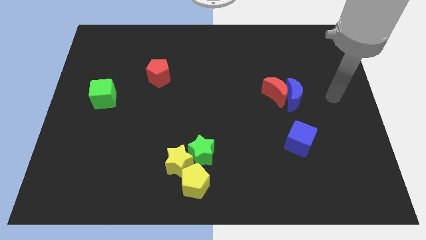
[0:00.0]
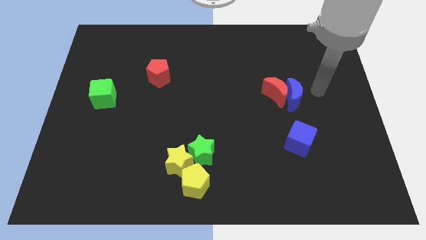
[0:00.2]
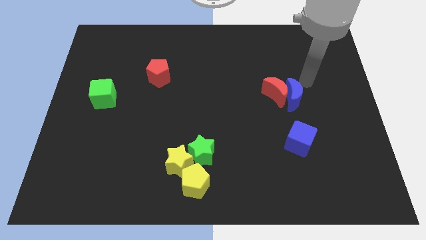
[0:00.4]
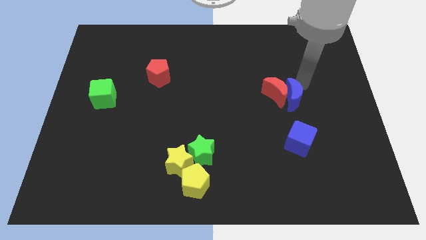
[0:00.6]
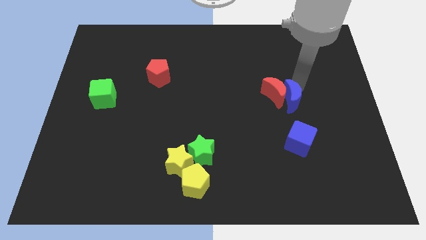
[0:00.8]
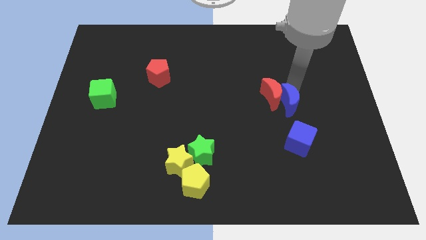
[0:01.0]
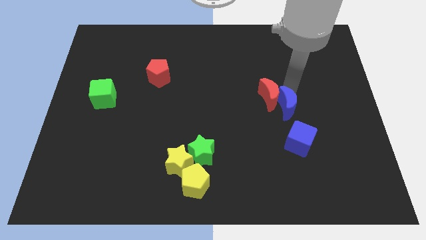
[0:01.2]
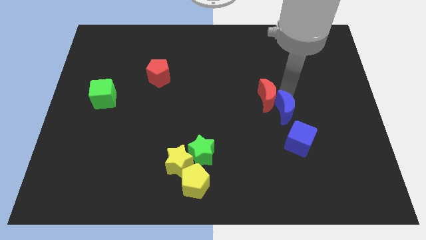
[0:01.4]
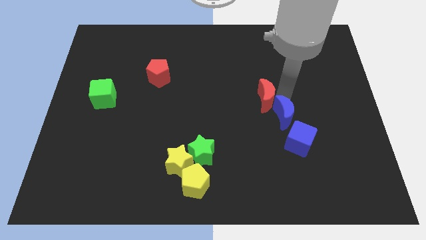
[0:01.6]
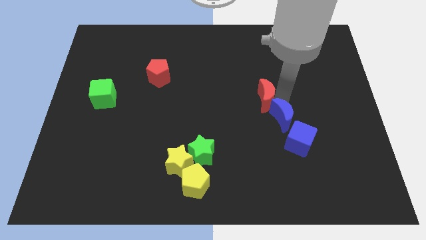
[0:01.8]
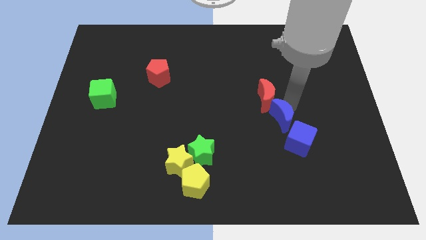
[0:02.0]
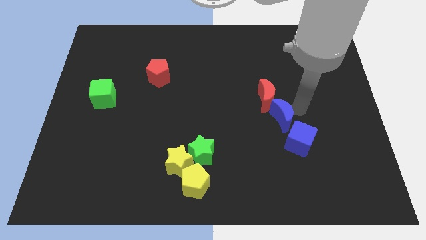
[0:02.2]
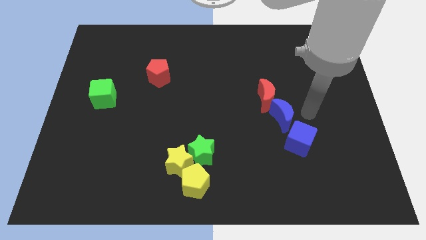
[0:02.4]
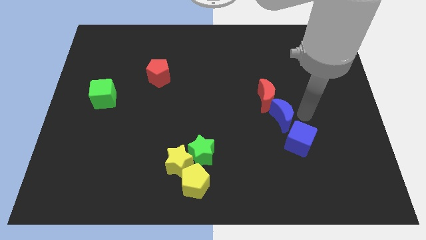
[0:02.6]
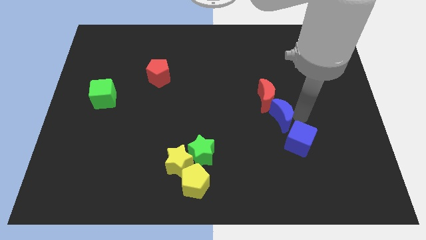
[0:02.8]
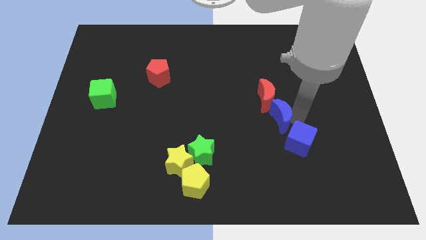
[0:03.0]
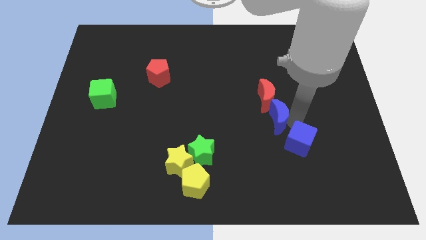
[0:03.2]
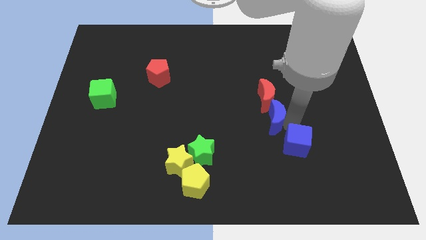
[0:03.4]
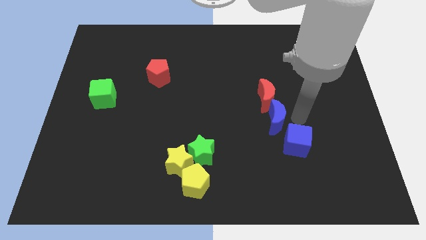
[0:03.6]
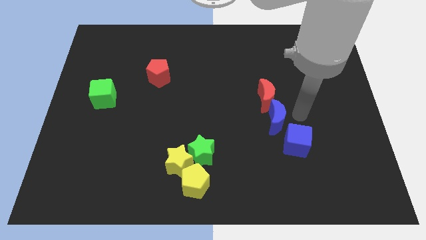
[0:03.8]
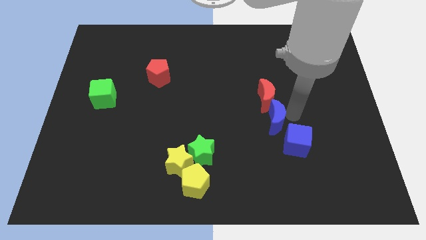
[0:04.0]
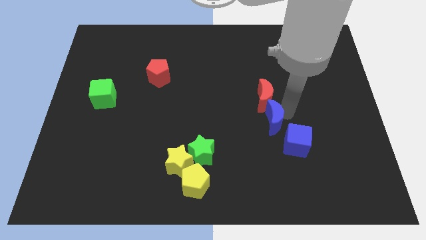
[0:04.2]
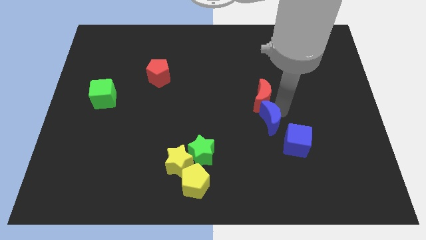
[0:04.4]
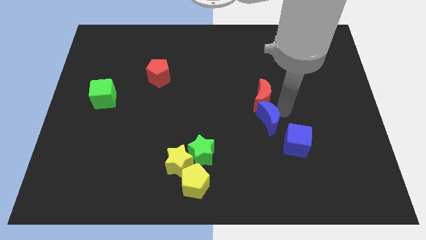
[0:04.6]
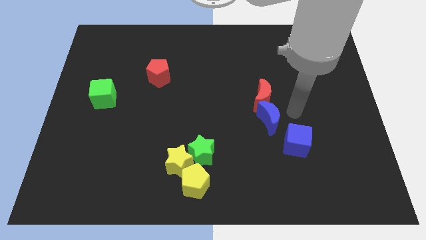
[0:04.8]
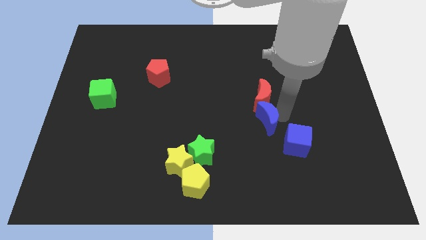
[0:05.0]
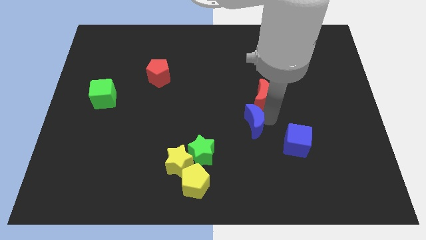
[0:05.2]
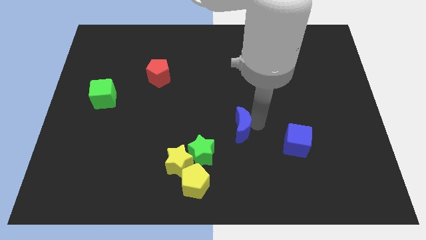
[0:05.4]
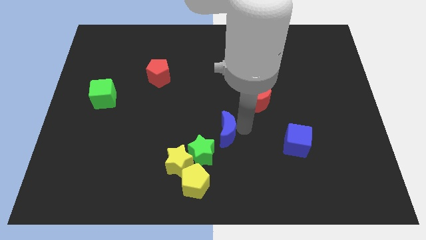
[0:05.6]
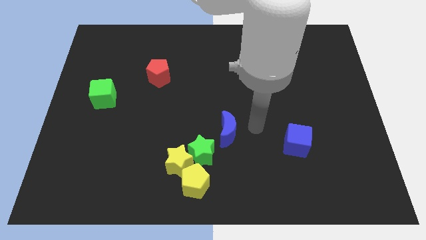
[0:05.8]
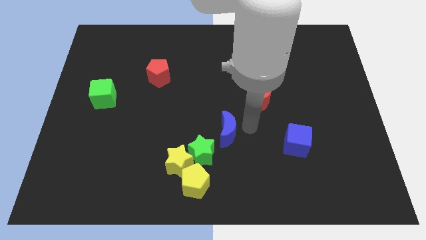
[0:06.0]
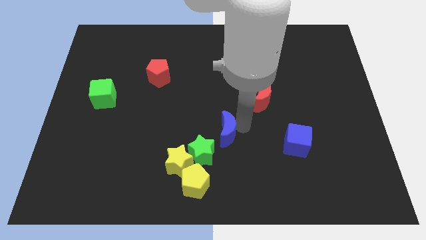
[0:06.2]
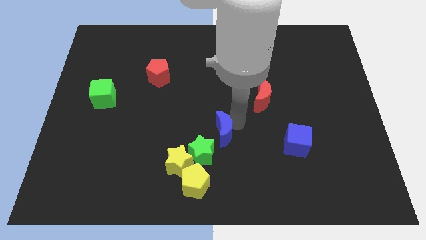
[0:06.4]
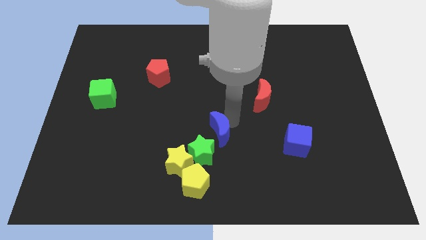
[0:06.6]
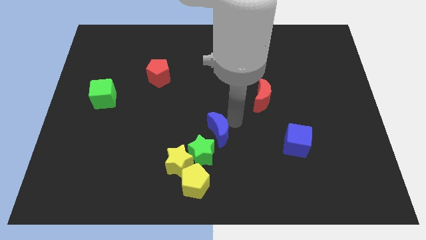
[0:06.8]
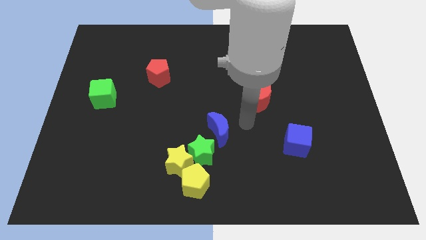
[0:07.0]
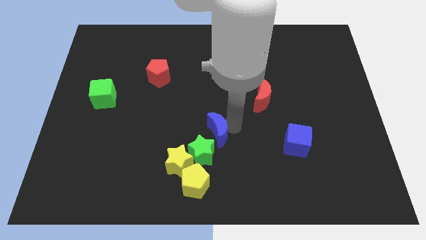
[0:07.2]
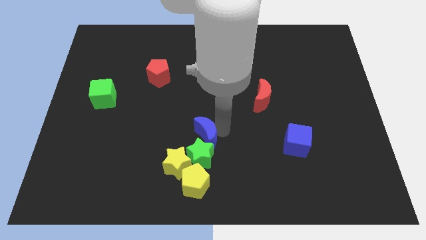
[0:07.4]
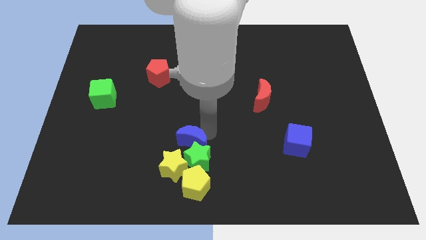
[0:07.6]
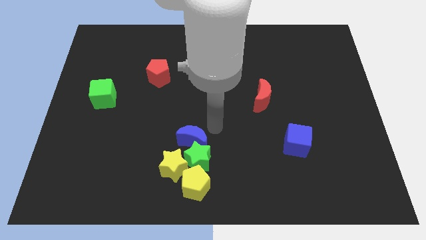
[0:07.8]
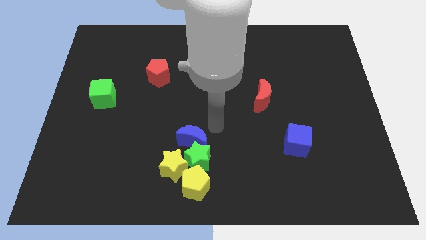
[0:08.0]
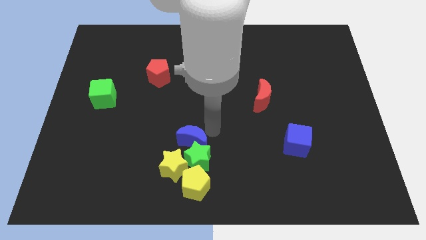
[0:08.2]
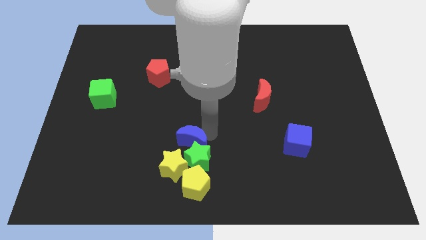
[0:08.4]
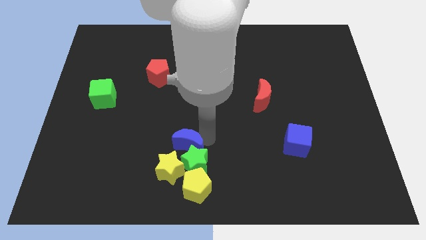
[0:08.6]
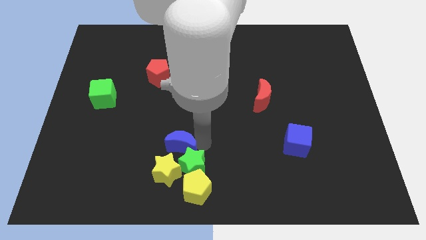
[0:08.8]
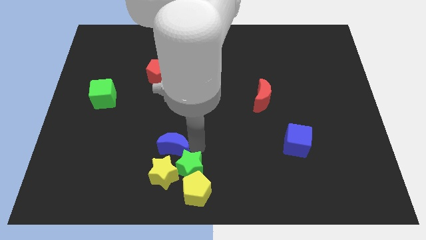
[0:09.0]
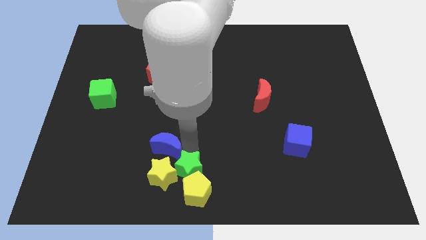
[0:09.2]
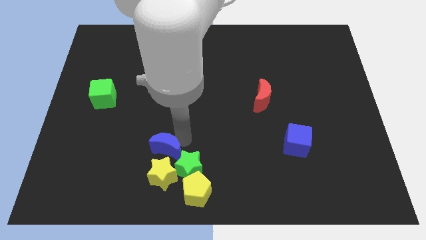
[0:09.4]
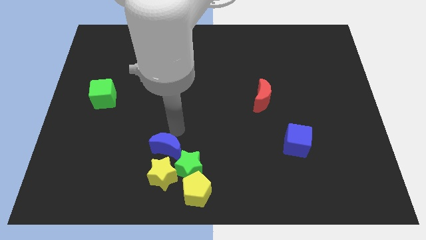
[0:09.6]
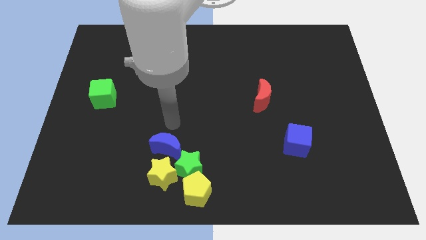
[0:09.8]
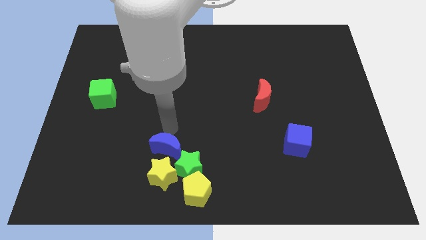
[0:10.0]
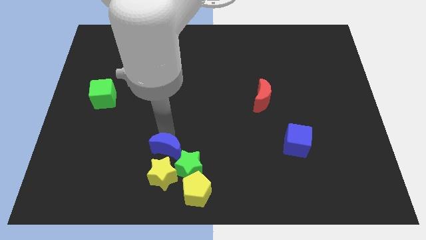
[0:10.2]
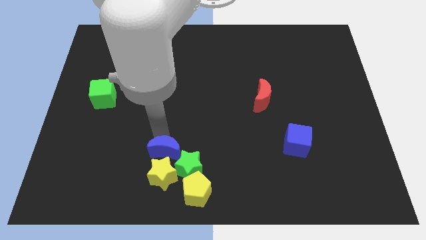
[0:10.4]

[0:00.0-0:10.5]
put the blue moon towards the yellow star

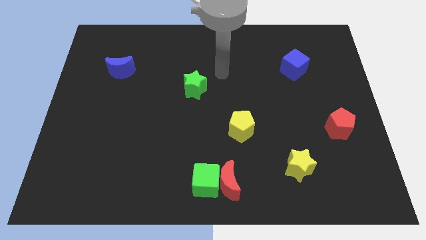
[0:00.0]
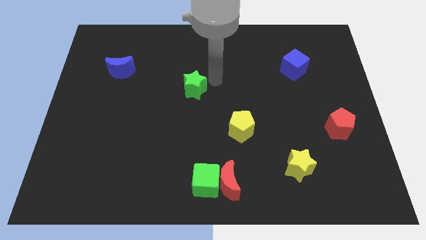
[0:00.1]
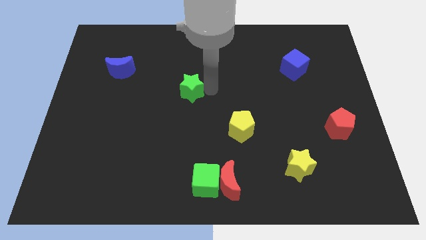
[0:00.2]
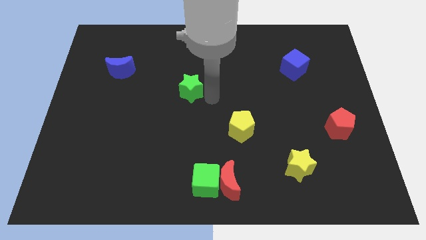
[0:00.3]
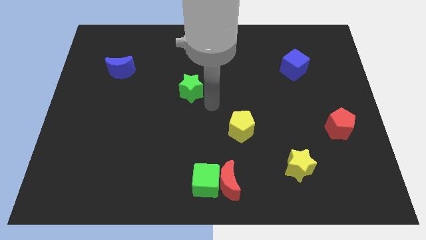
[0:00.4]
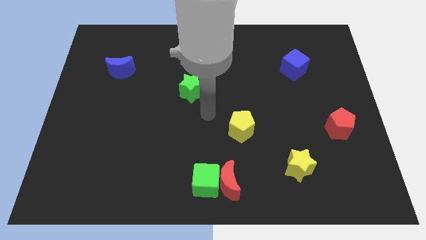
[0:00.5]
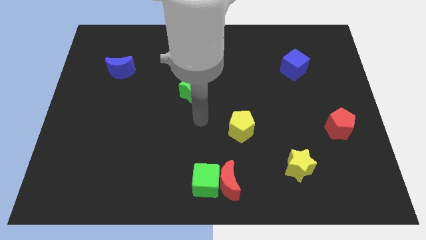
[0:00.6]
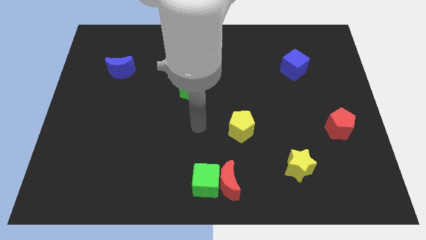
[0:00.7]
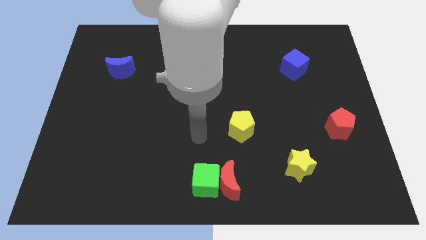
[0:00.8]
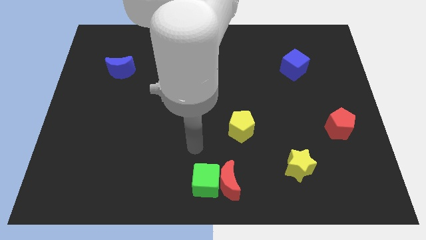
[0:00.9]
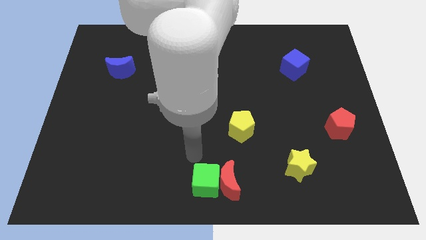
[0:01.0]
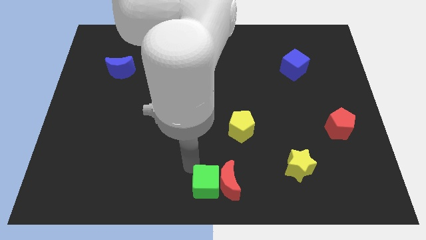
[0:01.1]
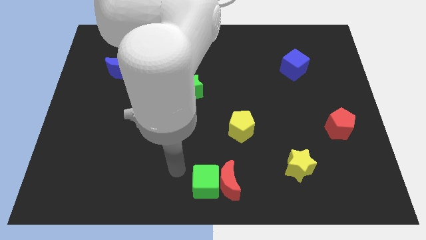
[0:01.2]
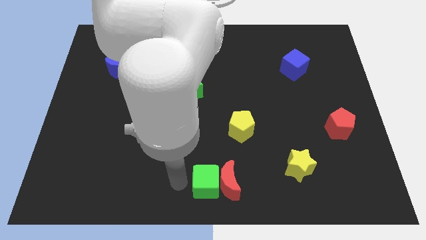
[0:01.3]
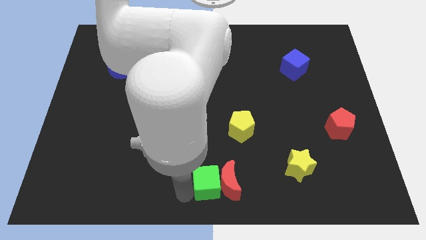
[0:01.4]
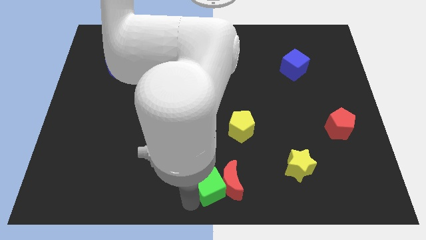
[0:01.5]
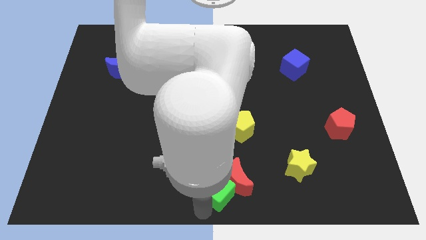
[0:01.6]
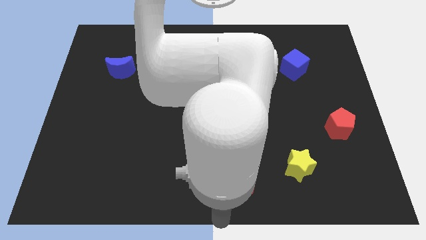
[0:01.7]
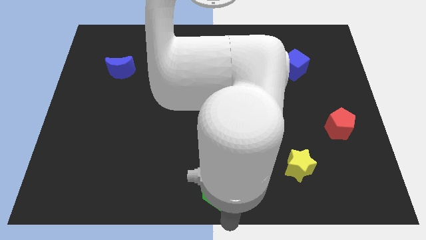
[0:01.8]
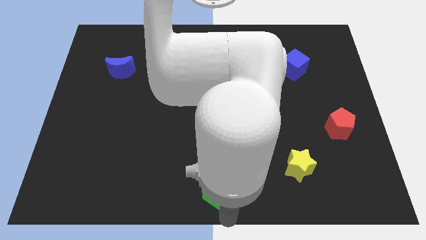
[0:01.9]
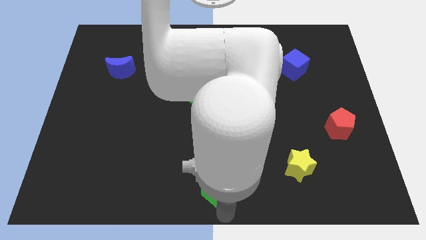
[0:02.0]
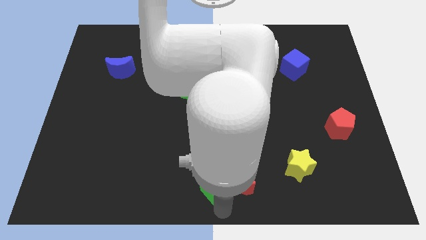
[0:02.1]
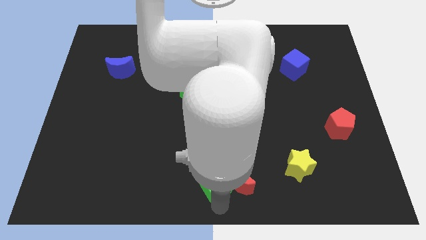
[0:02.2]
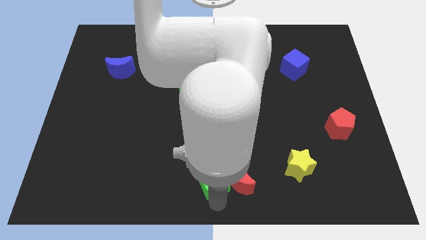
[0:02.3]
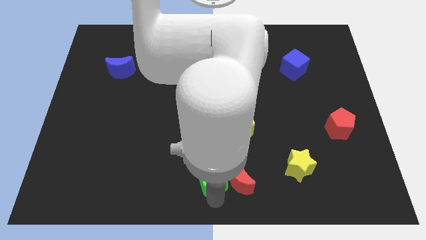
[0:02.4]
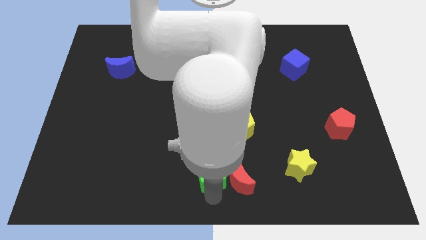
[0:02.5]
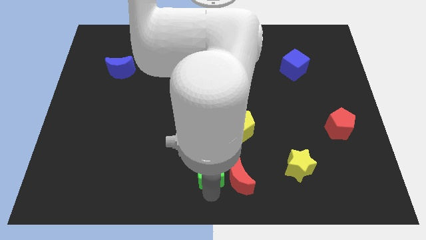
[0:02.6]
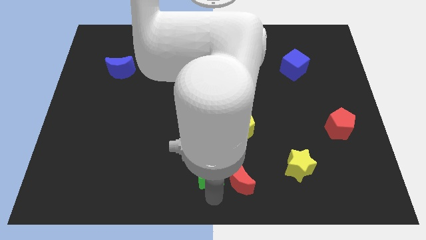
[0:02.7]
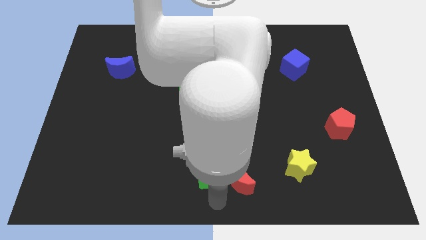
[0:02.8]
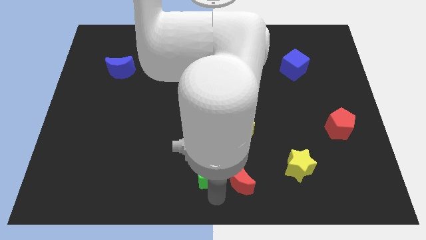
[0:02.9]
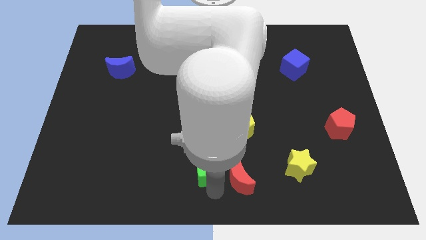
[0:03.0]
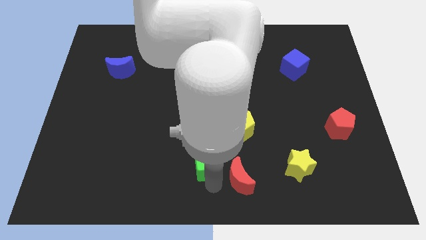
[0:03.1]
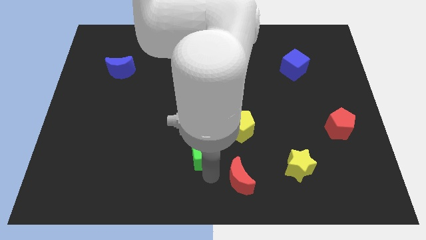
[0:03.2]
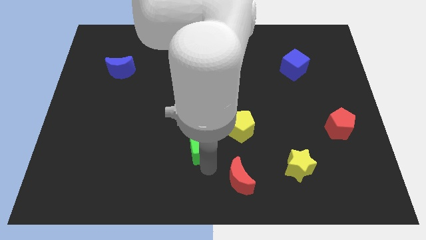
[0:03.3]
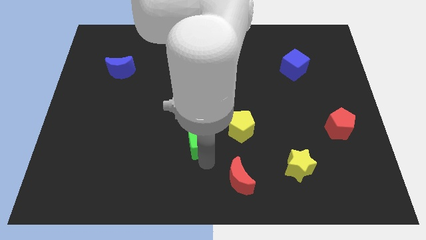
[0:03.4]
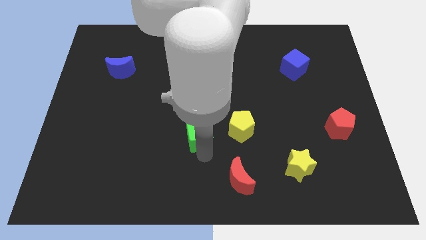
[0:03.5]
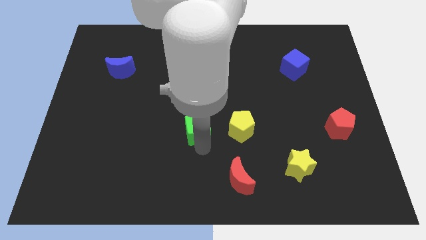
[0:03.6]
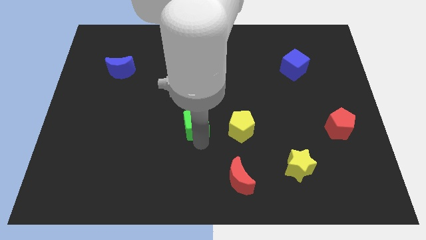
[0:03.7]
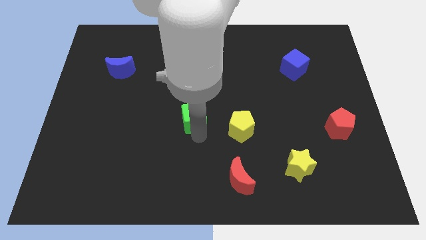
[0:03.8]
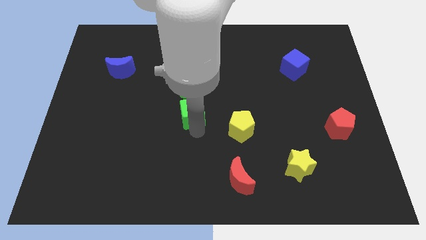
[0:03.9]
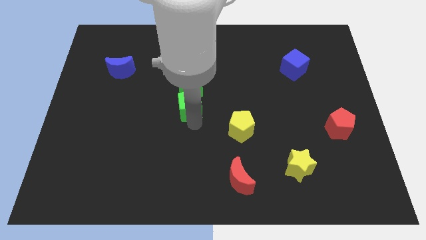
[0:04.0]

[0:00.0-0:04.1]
move the green cube next to the green star
